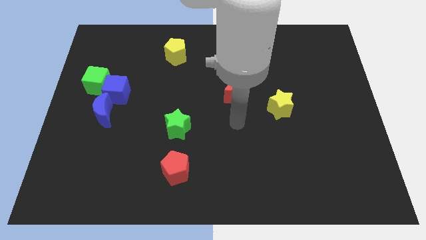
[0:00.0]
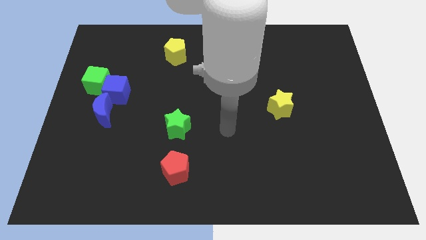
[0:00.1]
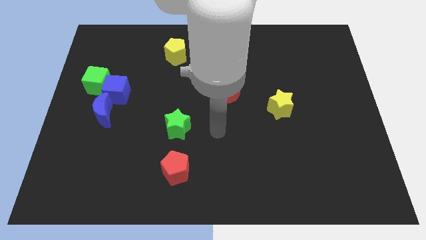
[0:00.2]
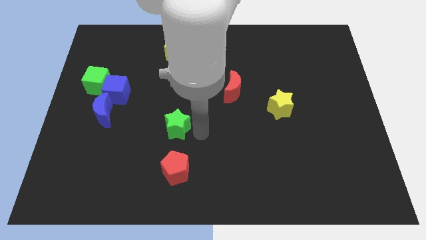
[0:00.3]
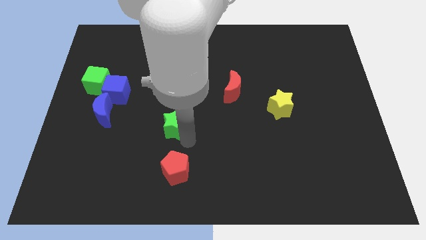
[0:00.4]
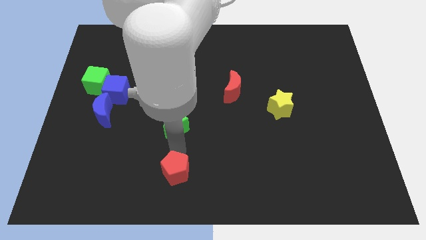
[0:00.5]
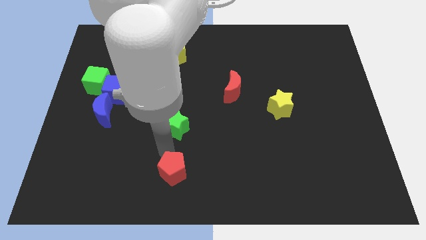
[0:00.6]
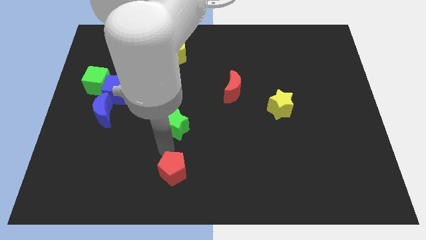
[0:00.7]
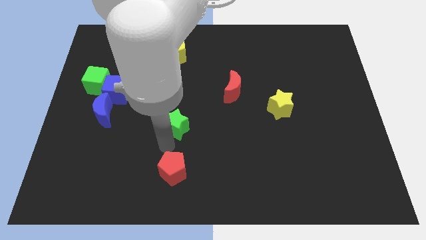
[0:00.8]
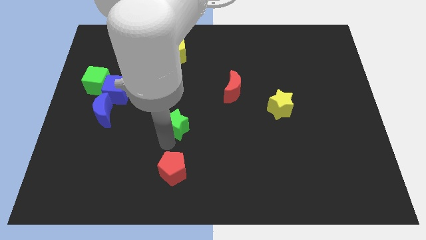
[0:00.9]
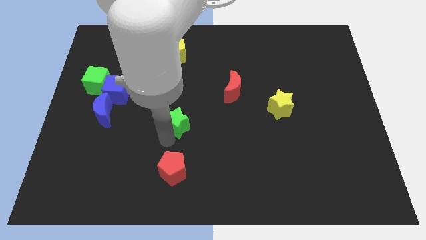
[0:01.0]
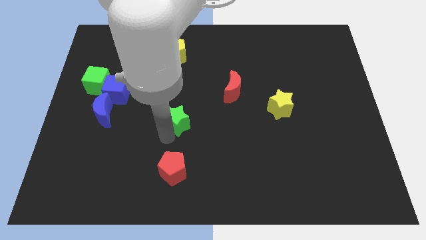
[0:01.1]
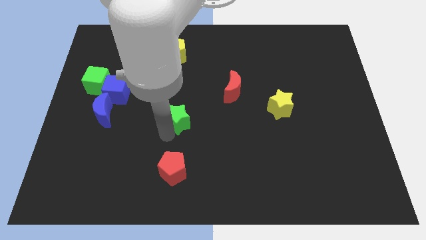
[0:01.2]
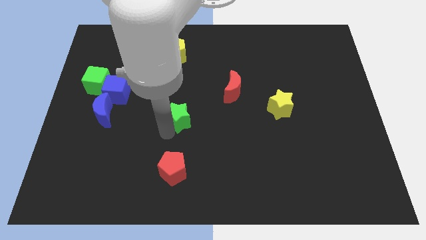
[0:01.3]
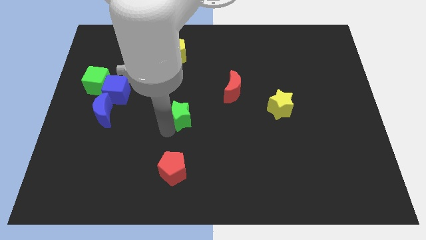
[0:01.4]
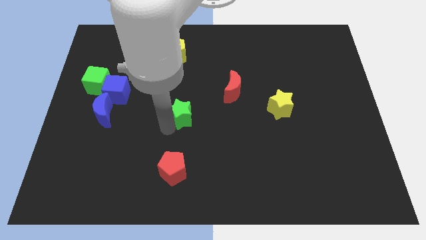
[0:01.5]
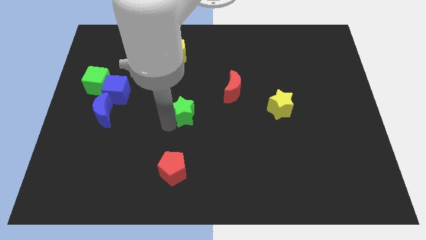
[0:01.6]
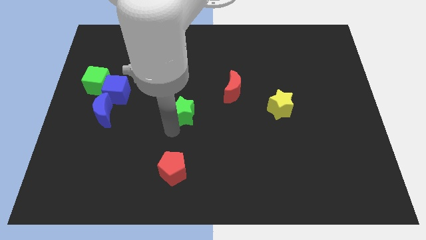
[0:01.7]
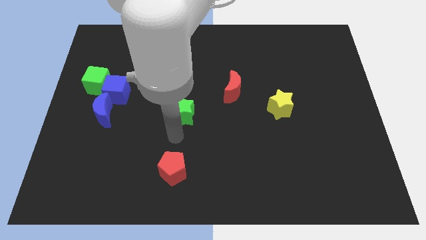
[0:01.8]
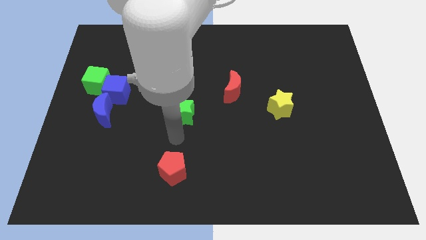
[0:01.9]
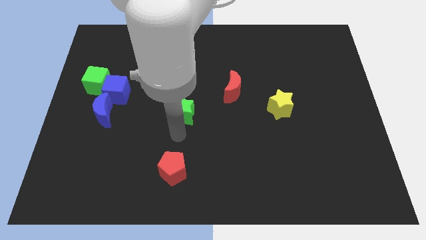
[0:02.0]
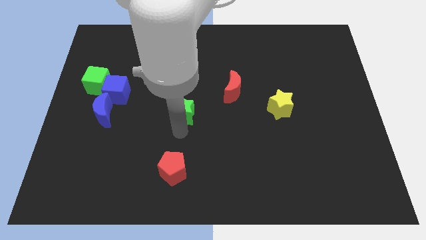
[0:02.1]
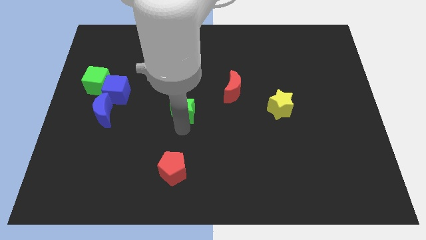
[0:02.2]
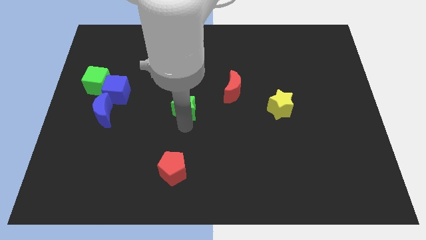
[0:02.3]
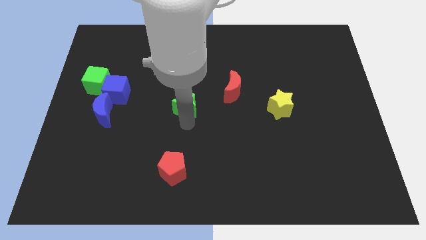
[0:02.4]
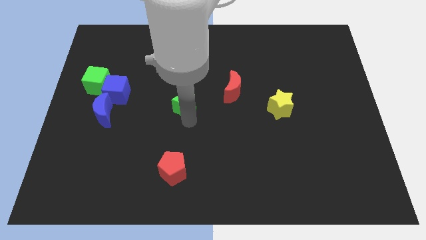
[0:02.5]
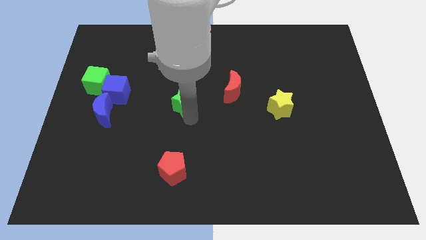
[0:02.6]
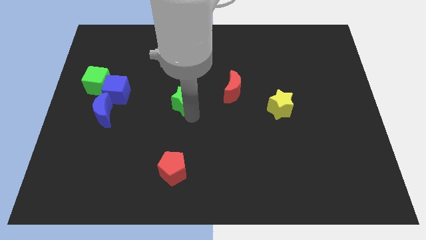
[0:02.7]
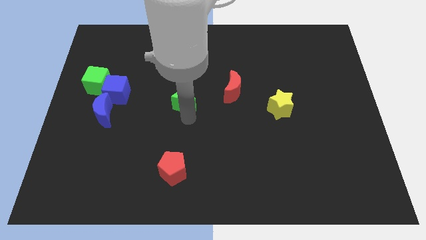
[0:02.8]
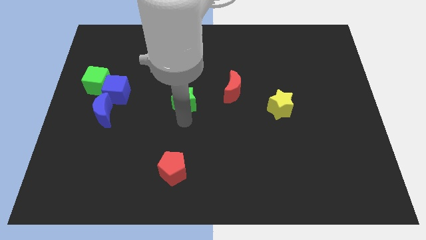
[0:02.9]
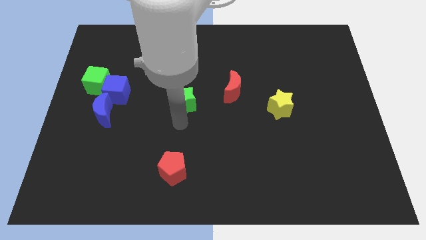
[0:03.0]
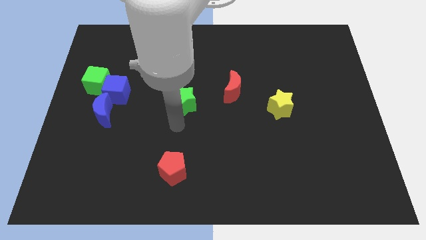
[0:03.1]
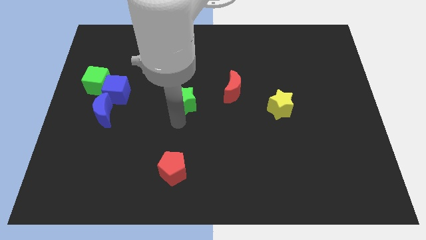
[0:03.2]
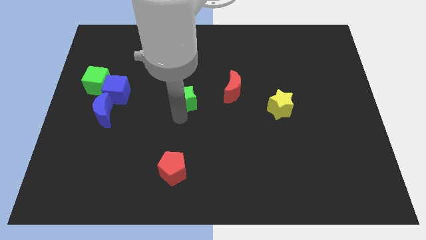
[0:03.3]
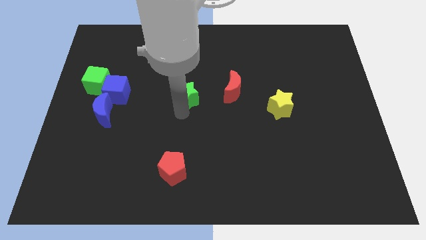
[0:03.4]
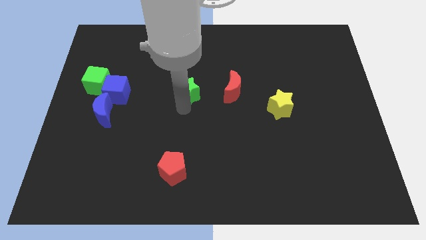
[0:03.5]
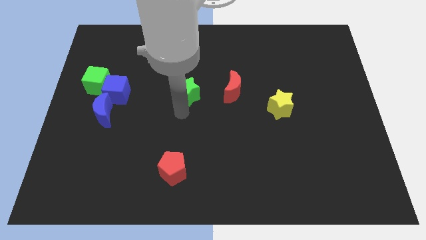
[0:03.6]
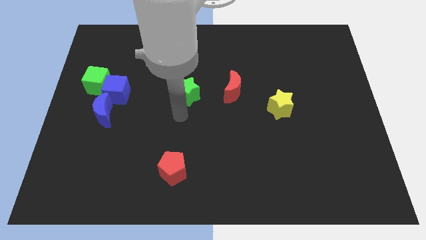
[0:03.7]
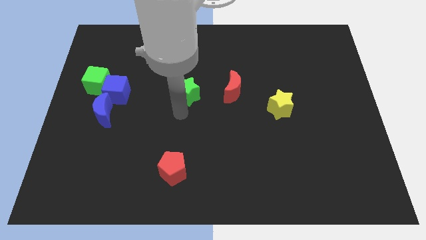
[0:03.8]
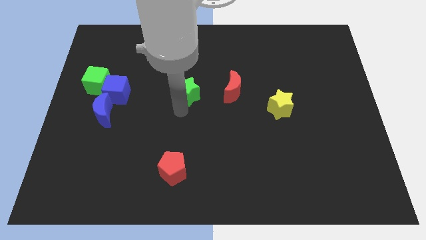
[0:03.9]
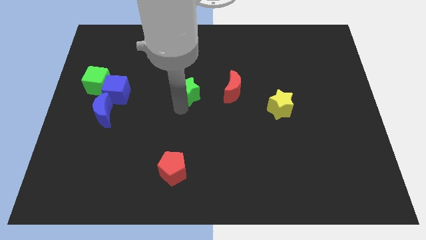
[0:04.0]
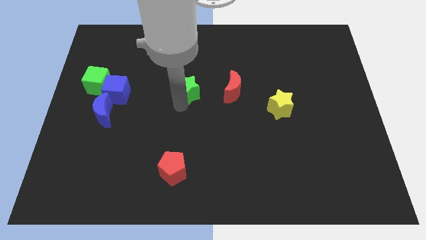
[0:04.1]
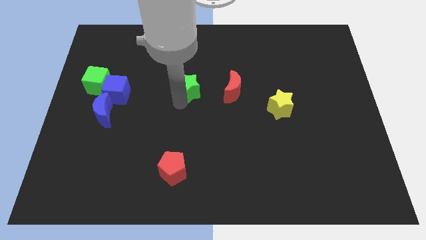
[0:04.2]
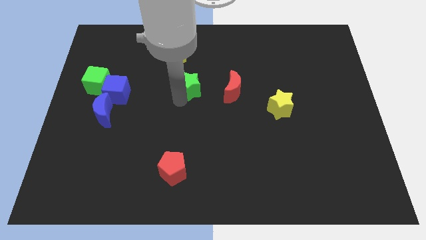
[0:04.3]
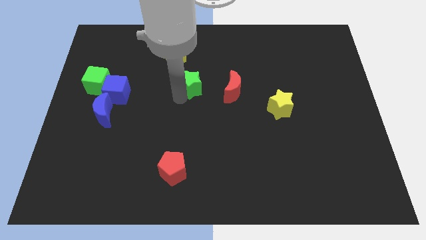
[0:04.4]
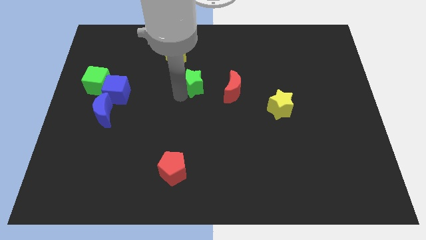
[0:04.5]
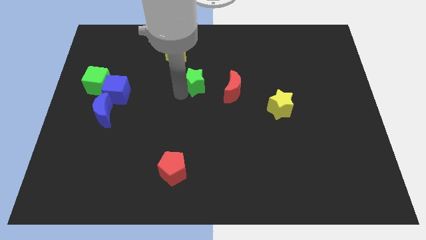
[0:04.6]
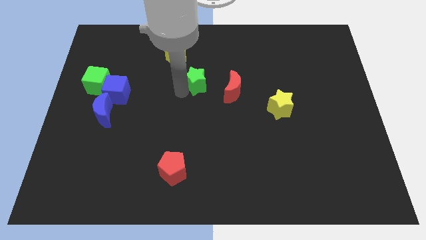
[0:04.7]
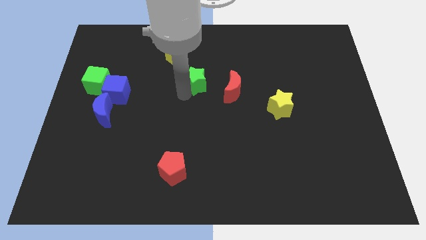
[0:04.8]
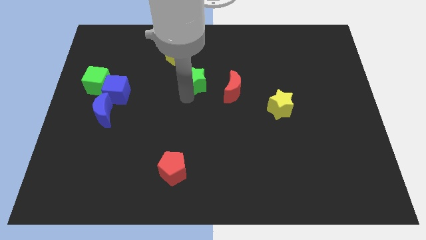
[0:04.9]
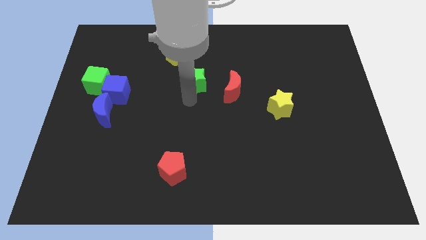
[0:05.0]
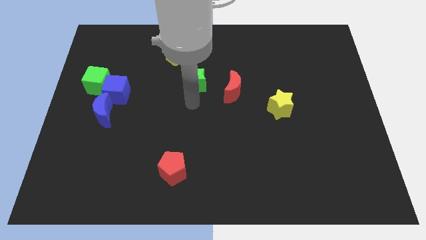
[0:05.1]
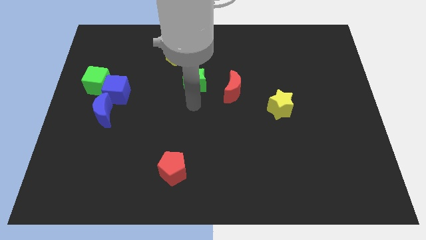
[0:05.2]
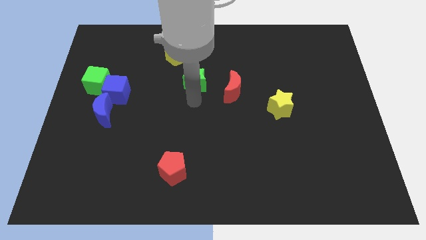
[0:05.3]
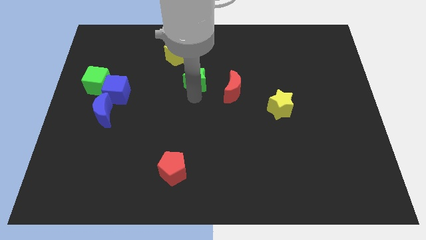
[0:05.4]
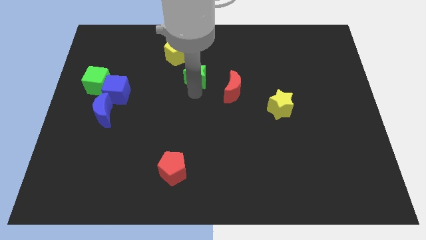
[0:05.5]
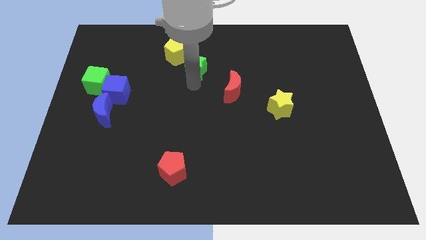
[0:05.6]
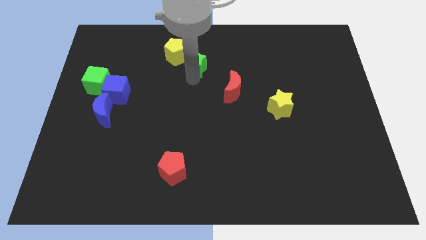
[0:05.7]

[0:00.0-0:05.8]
slide the green star to the right of the yellow pentagon

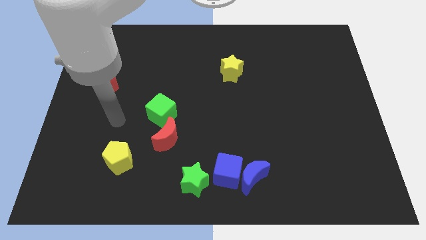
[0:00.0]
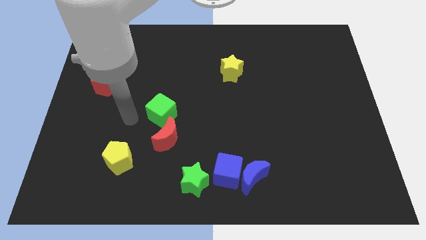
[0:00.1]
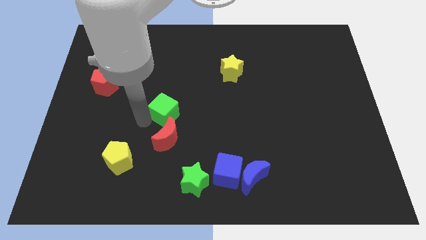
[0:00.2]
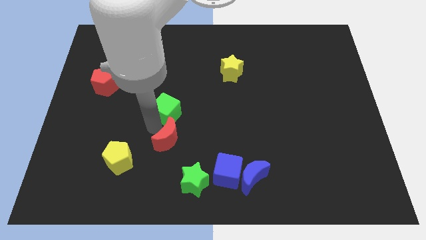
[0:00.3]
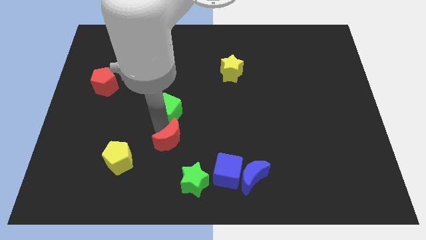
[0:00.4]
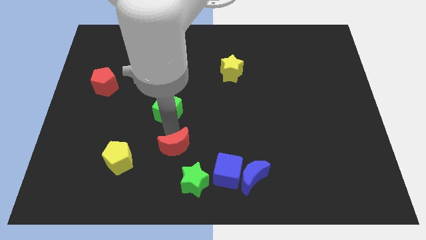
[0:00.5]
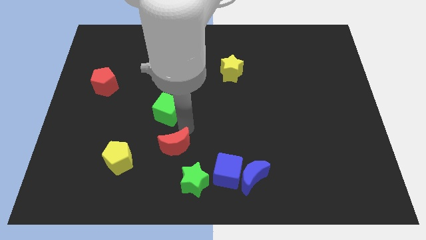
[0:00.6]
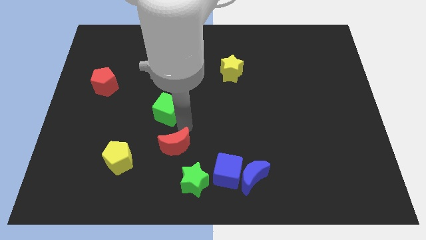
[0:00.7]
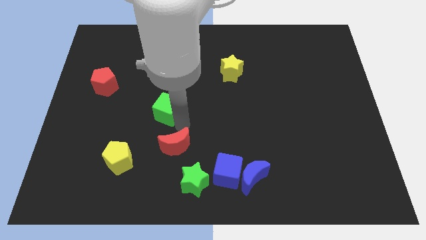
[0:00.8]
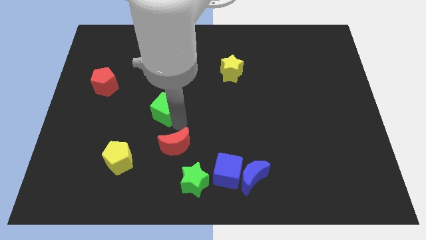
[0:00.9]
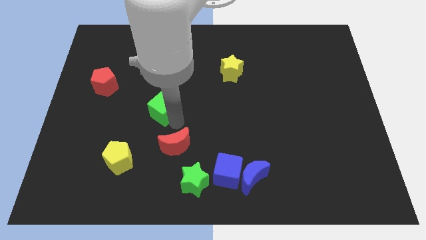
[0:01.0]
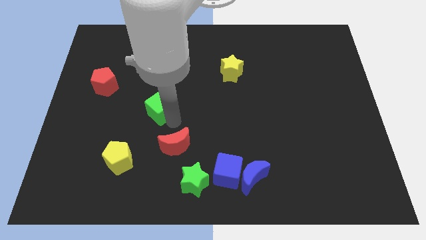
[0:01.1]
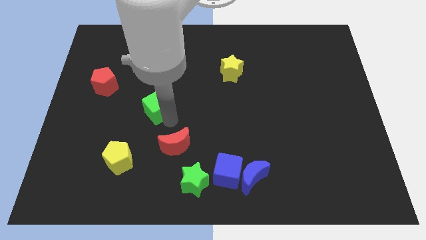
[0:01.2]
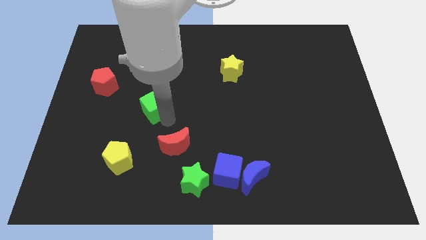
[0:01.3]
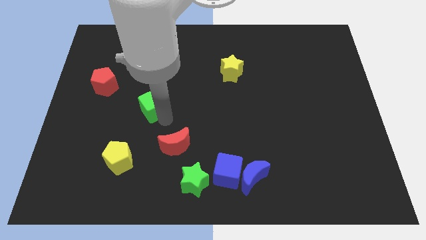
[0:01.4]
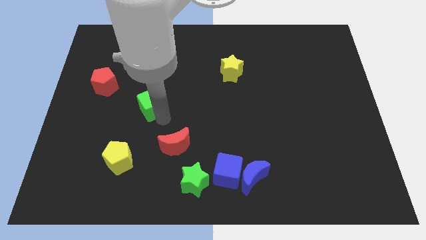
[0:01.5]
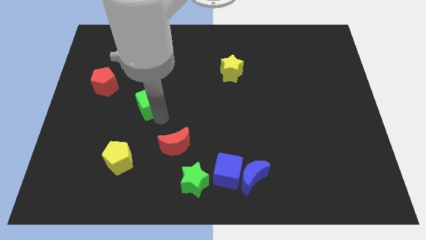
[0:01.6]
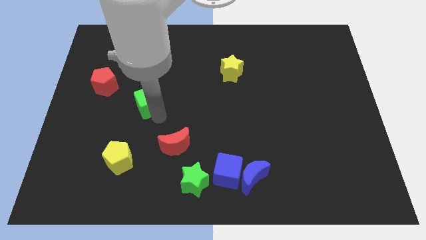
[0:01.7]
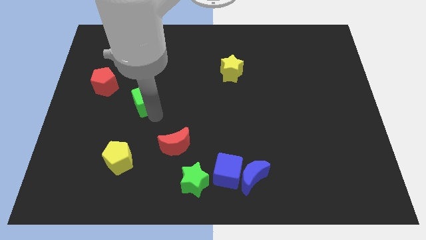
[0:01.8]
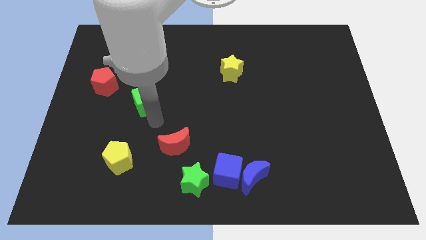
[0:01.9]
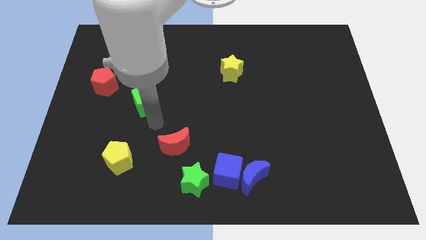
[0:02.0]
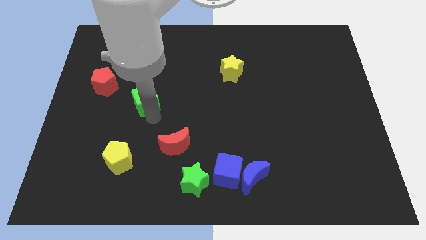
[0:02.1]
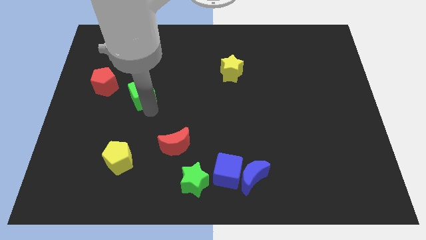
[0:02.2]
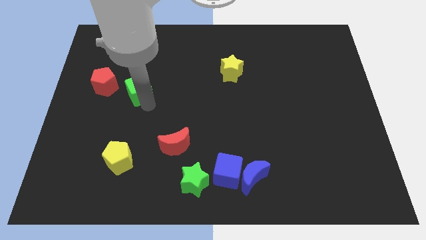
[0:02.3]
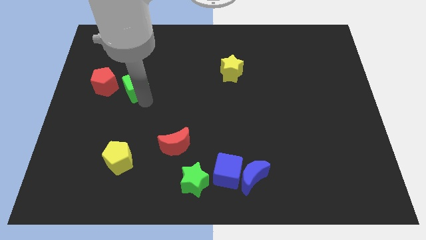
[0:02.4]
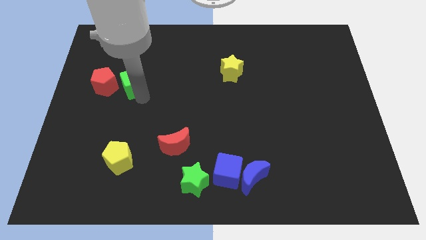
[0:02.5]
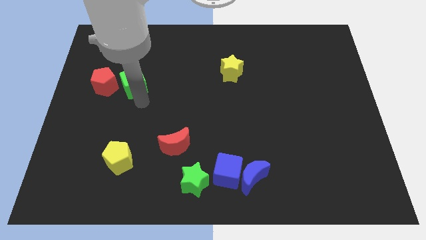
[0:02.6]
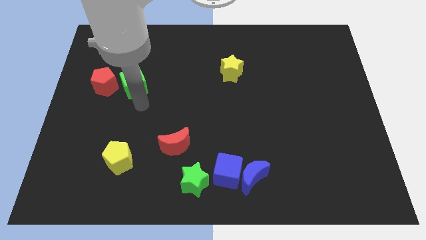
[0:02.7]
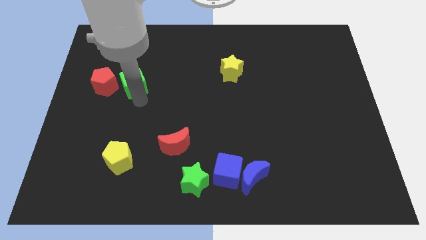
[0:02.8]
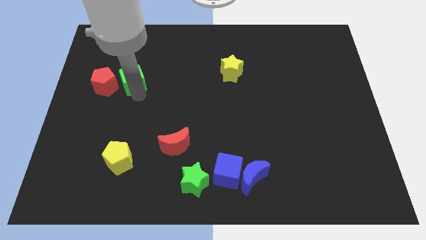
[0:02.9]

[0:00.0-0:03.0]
push the green cube to the top right side of the red pentagon
